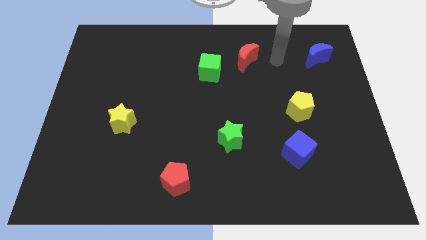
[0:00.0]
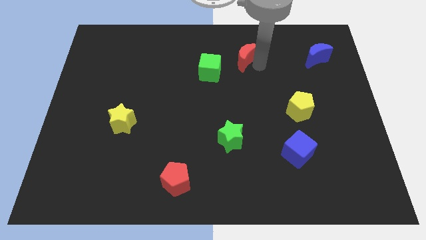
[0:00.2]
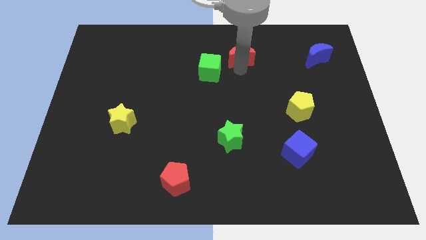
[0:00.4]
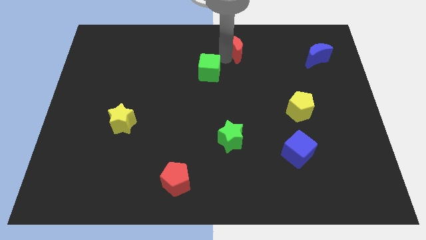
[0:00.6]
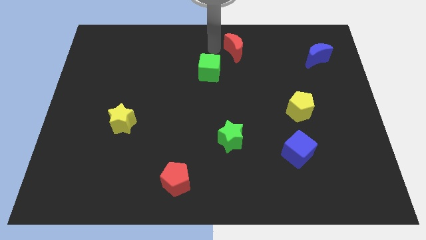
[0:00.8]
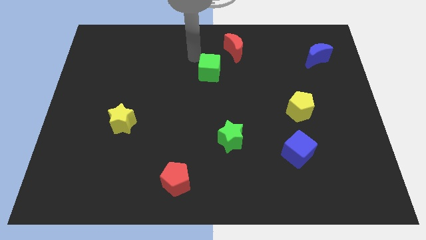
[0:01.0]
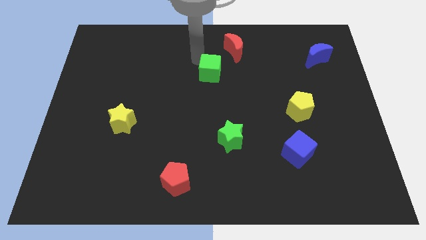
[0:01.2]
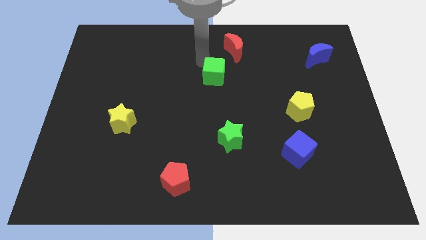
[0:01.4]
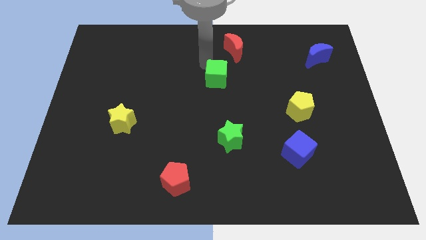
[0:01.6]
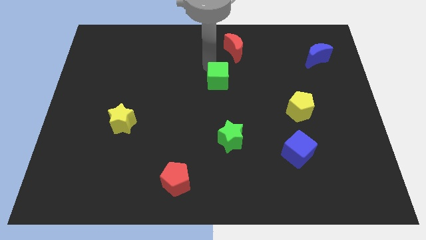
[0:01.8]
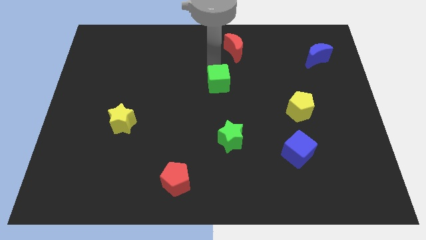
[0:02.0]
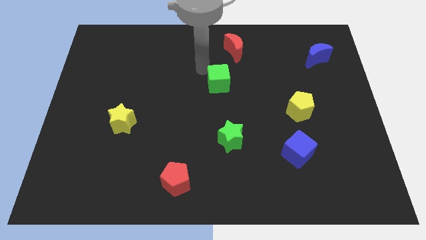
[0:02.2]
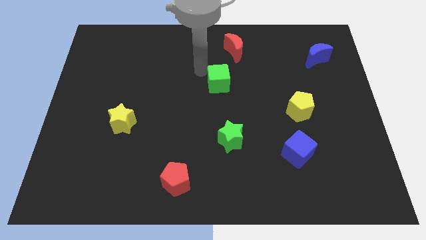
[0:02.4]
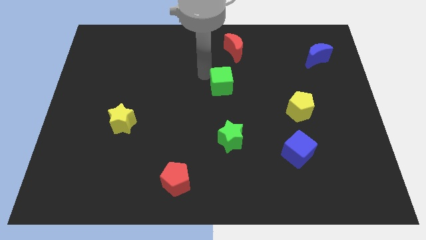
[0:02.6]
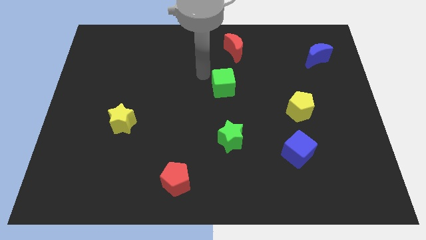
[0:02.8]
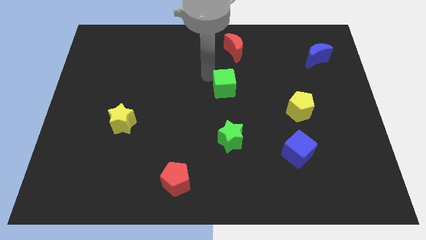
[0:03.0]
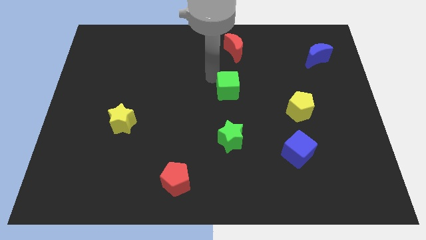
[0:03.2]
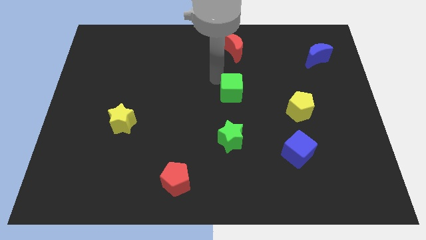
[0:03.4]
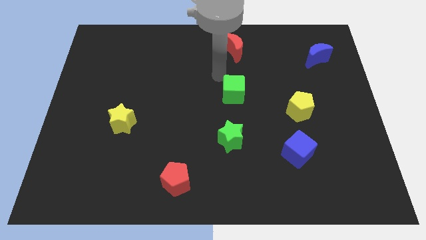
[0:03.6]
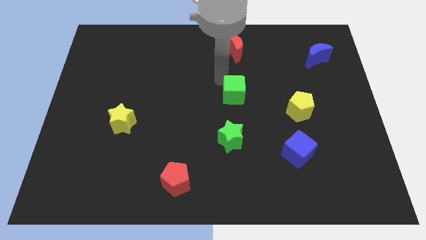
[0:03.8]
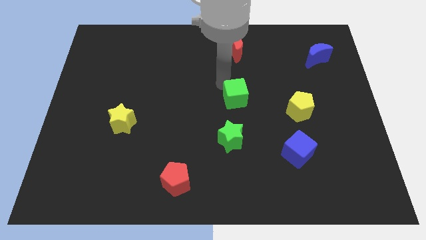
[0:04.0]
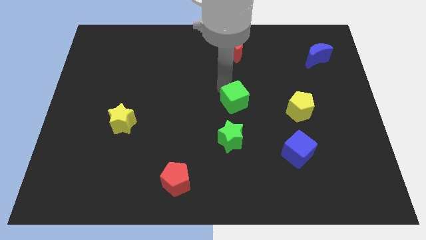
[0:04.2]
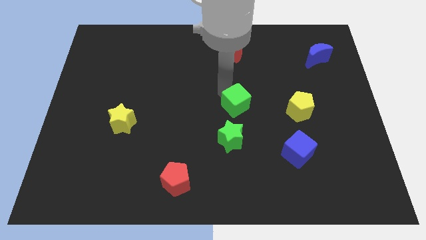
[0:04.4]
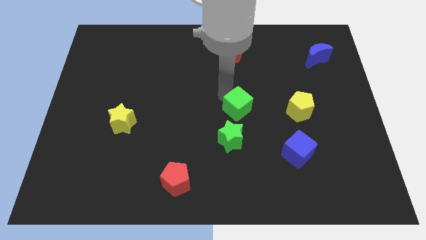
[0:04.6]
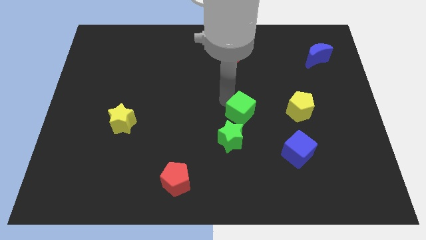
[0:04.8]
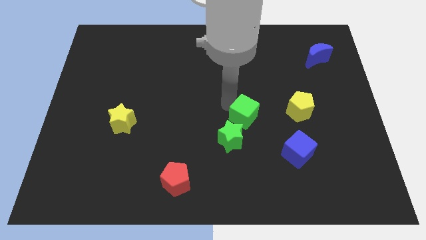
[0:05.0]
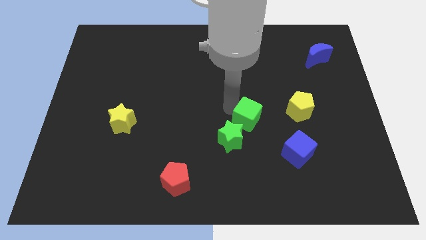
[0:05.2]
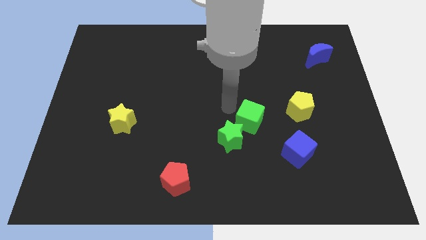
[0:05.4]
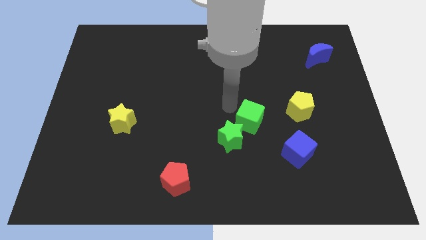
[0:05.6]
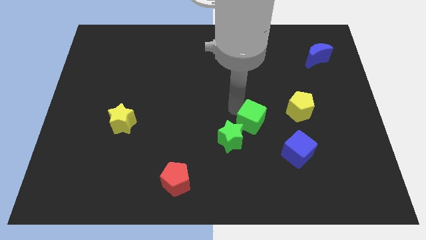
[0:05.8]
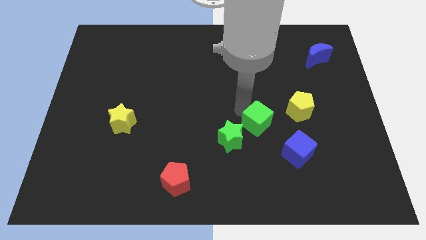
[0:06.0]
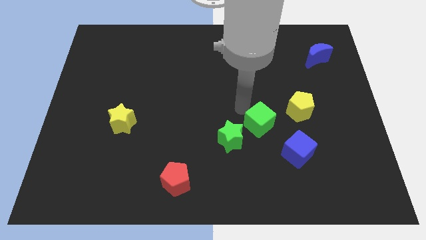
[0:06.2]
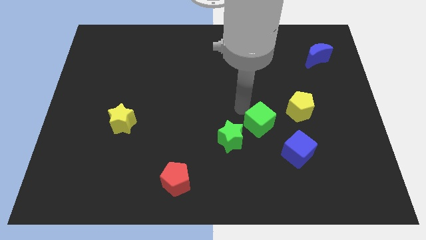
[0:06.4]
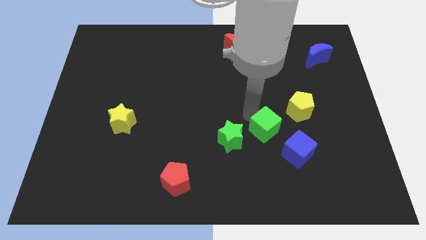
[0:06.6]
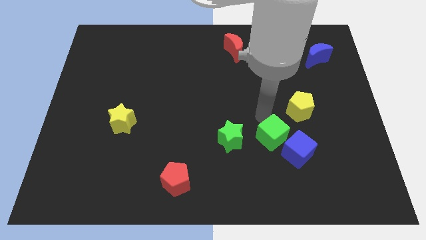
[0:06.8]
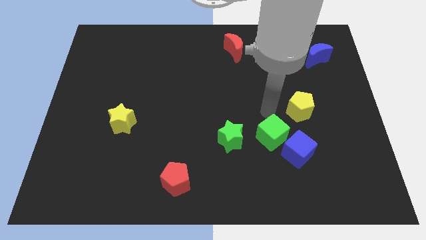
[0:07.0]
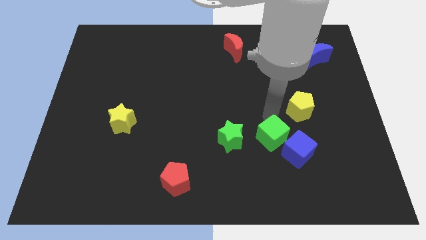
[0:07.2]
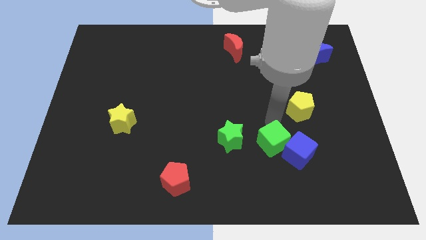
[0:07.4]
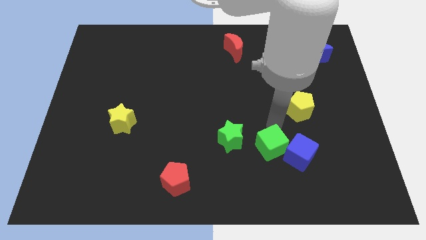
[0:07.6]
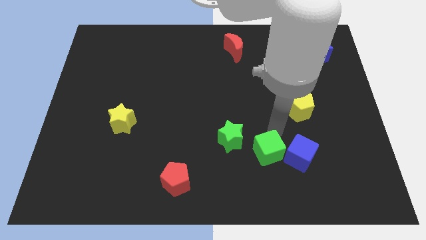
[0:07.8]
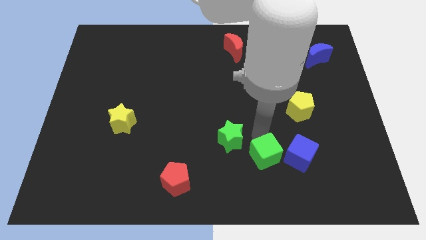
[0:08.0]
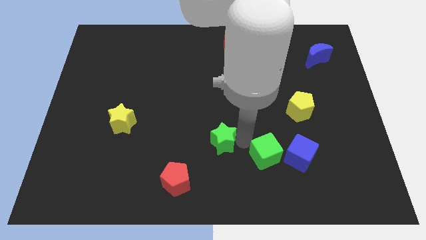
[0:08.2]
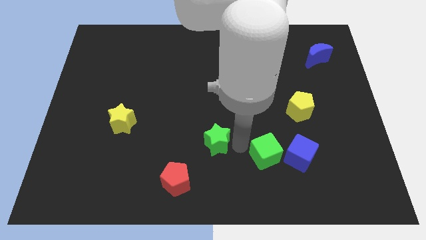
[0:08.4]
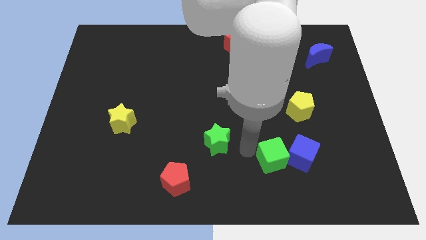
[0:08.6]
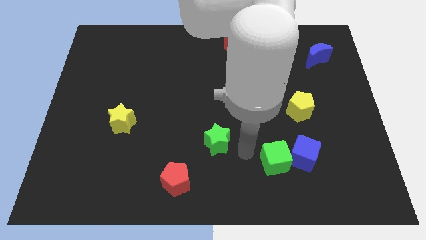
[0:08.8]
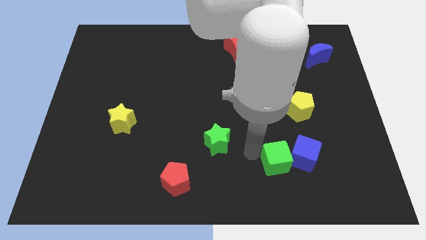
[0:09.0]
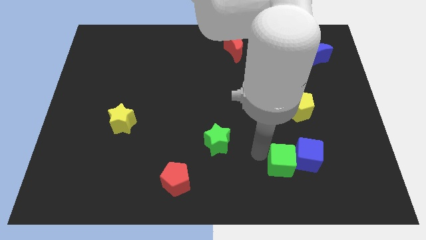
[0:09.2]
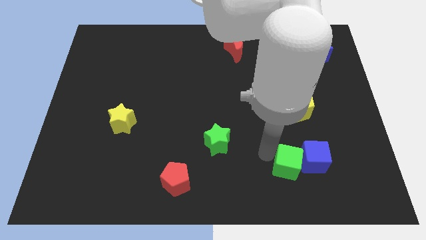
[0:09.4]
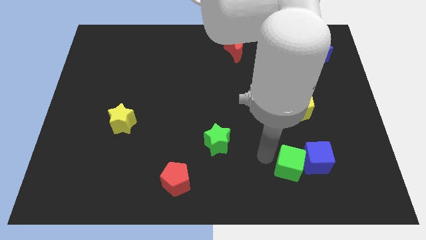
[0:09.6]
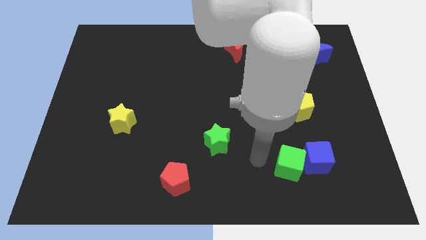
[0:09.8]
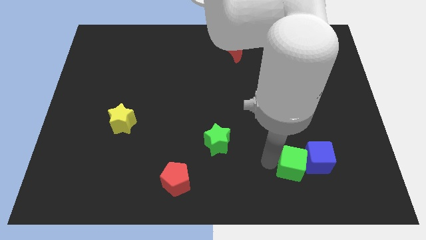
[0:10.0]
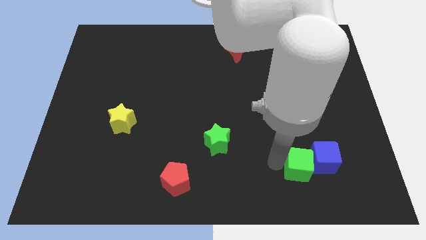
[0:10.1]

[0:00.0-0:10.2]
put the green cube below the yellow pentagon

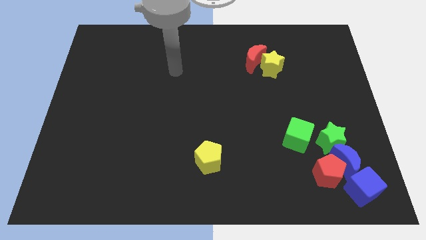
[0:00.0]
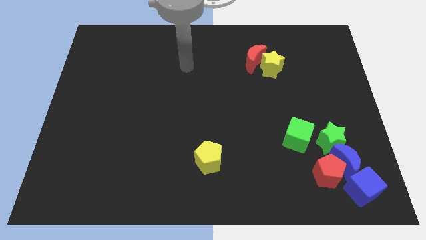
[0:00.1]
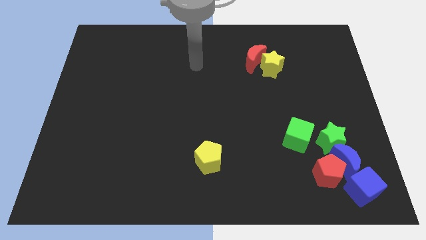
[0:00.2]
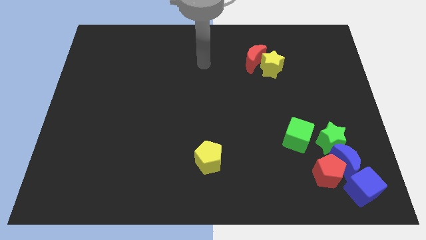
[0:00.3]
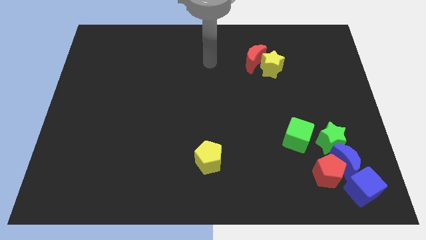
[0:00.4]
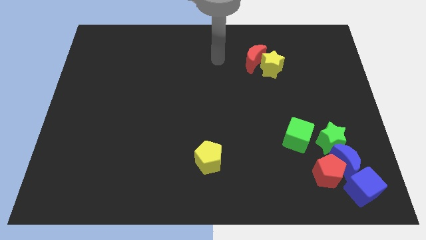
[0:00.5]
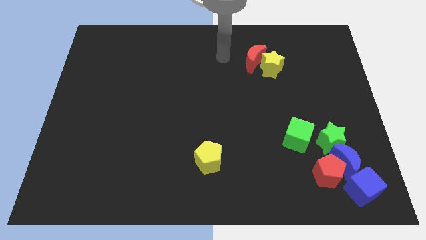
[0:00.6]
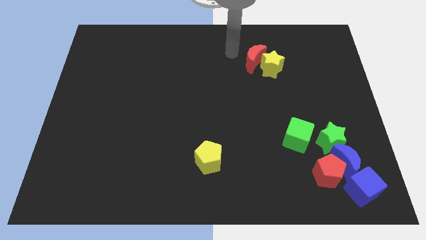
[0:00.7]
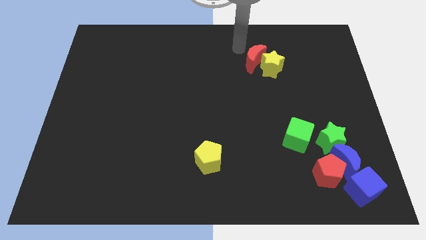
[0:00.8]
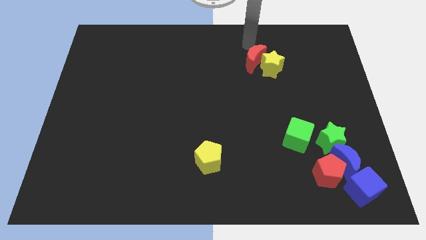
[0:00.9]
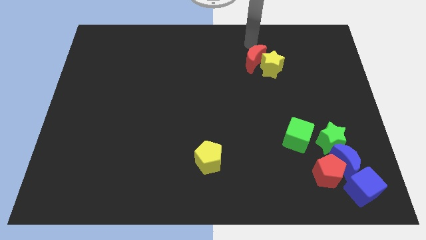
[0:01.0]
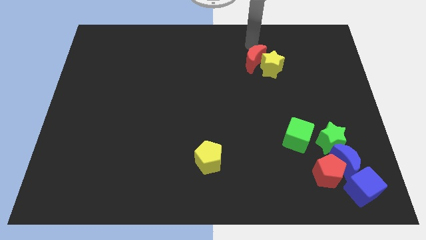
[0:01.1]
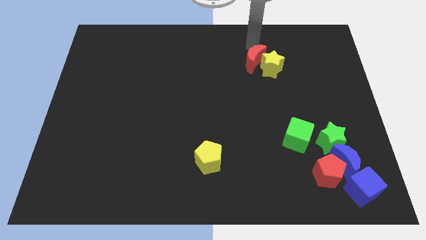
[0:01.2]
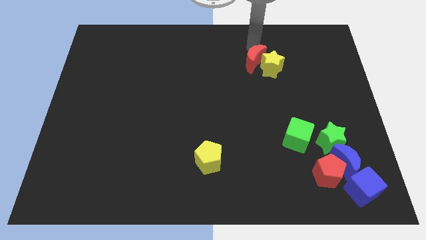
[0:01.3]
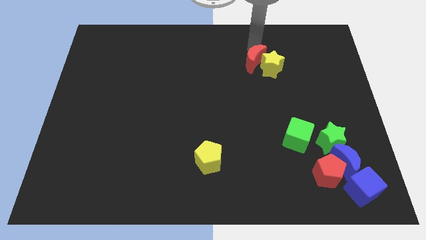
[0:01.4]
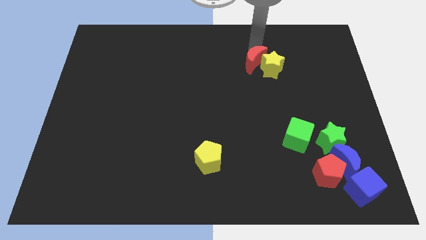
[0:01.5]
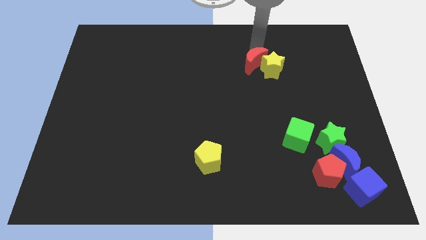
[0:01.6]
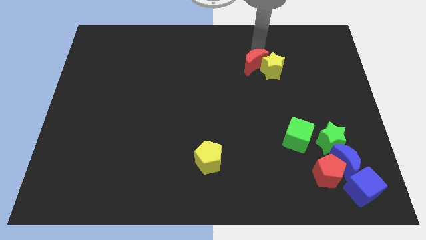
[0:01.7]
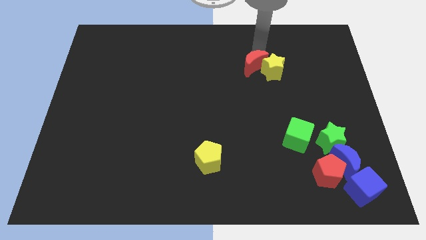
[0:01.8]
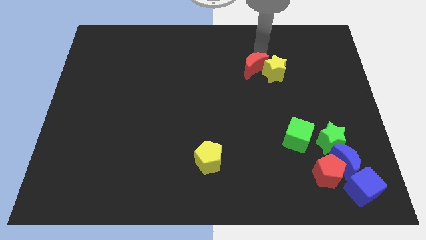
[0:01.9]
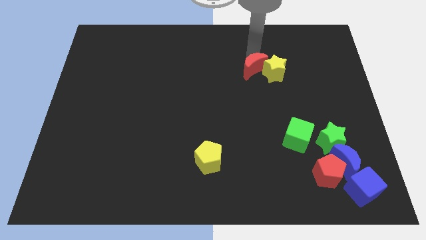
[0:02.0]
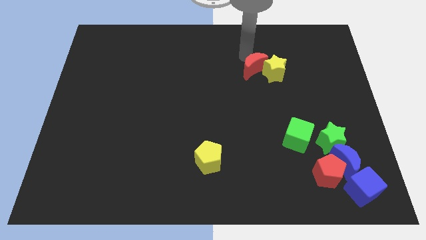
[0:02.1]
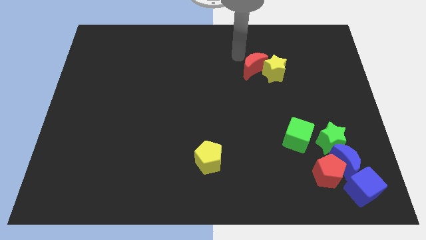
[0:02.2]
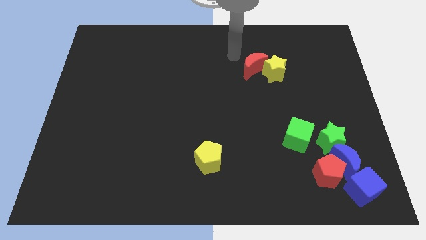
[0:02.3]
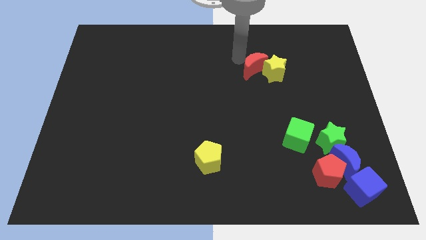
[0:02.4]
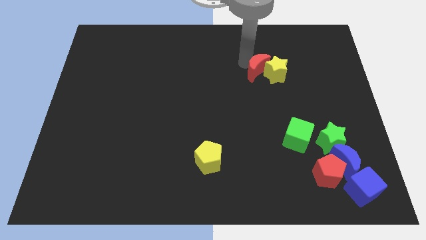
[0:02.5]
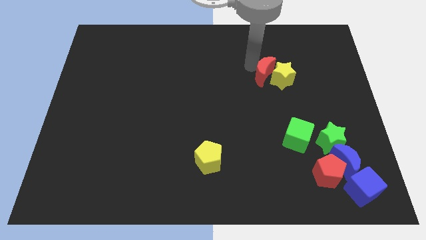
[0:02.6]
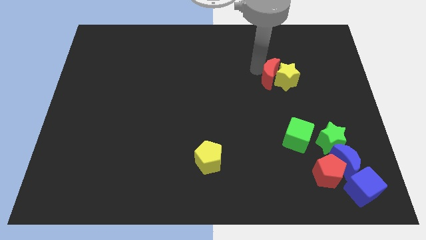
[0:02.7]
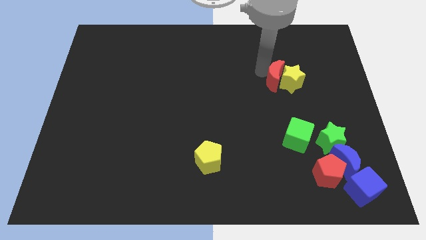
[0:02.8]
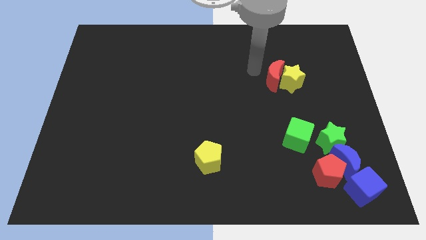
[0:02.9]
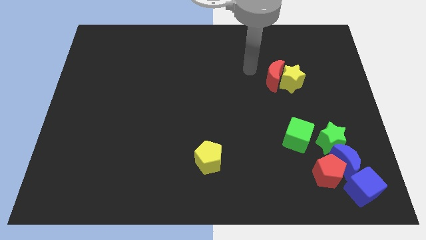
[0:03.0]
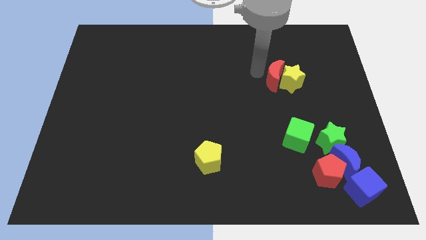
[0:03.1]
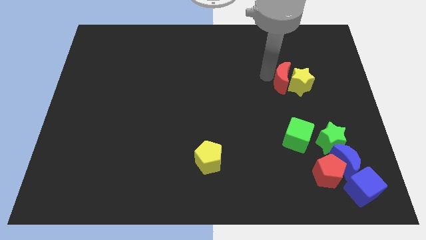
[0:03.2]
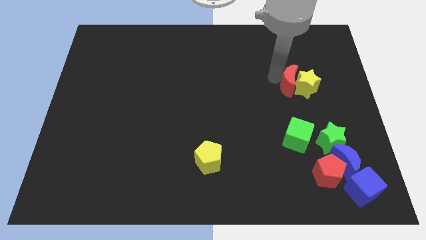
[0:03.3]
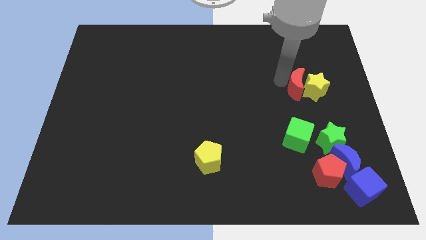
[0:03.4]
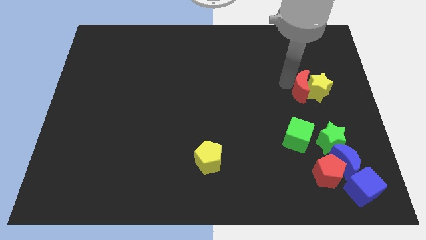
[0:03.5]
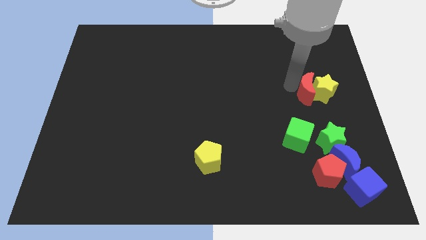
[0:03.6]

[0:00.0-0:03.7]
move the red moon to the top side of the green star
